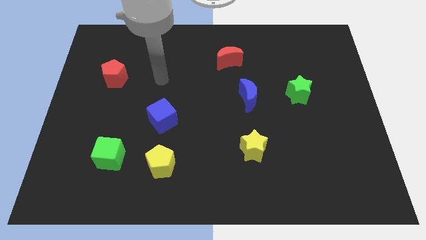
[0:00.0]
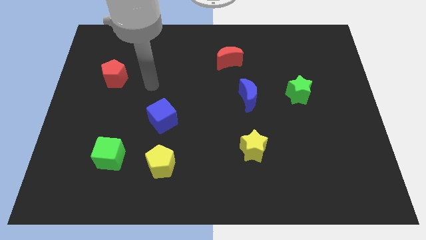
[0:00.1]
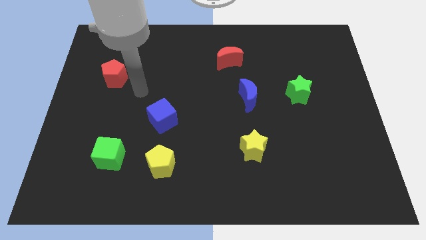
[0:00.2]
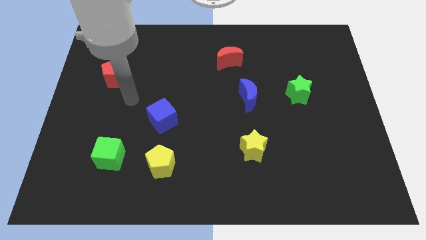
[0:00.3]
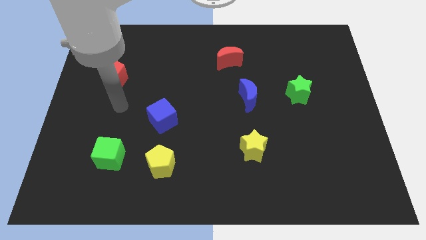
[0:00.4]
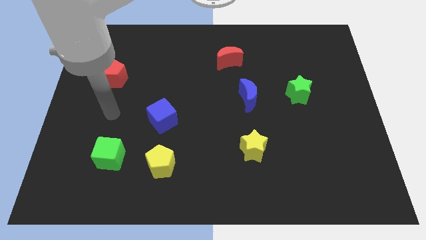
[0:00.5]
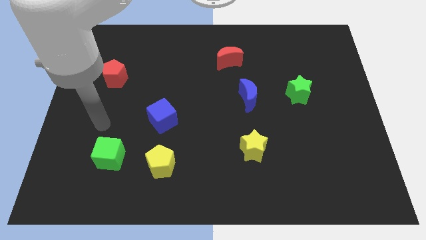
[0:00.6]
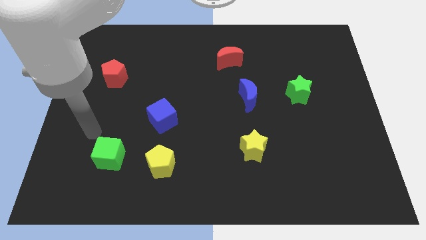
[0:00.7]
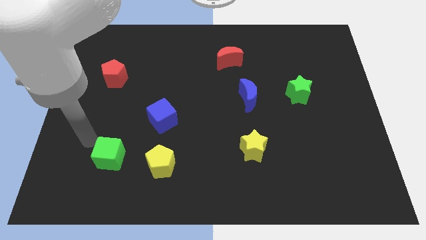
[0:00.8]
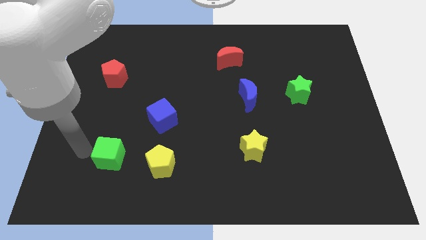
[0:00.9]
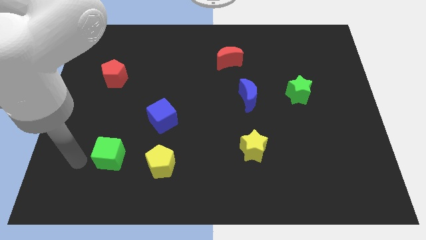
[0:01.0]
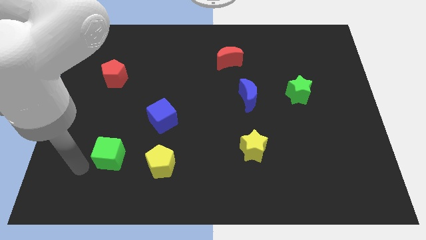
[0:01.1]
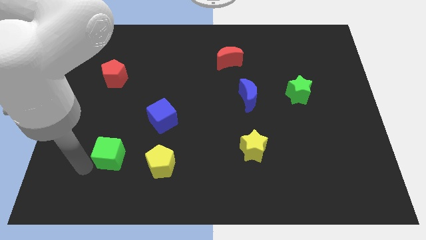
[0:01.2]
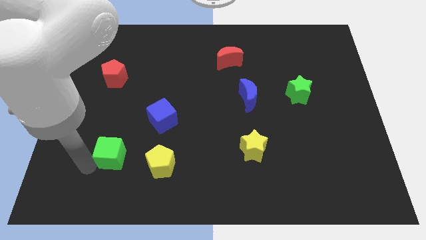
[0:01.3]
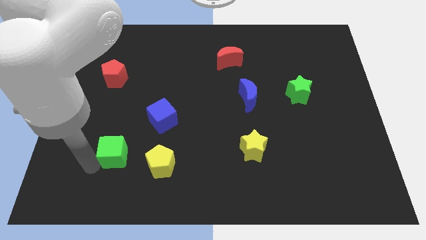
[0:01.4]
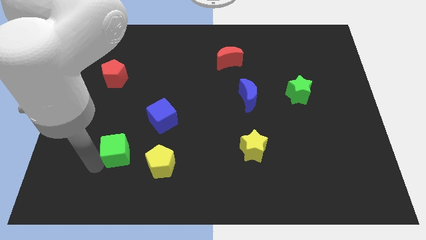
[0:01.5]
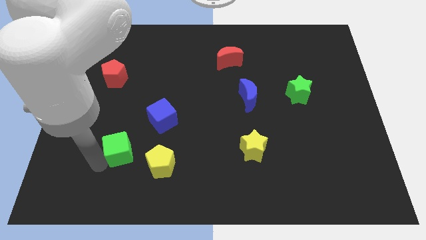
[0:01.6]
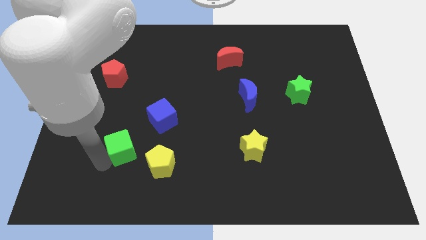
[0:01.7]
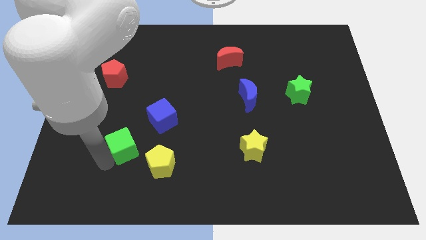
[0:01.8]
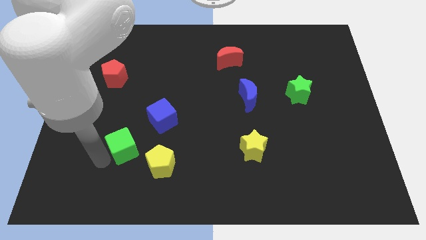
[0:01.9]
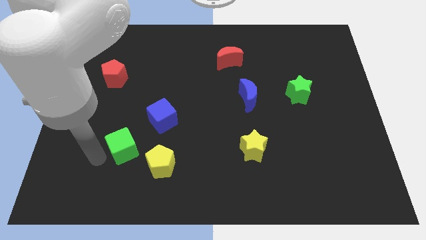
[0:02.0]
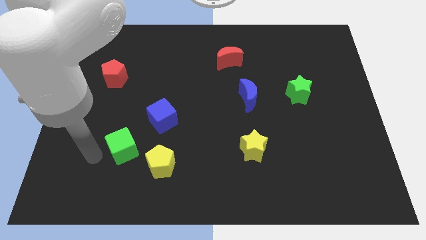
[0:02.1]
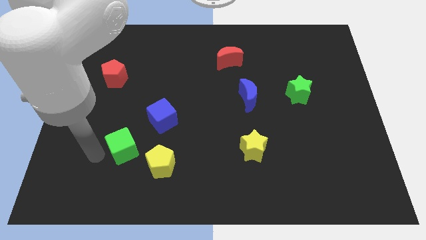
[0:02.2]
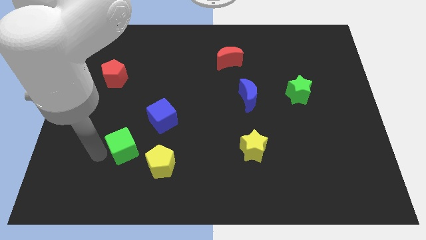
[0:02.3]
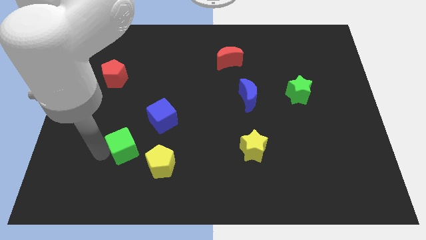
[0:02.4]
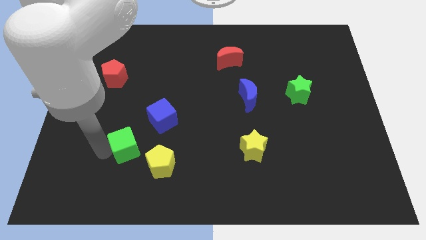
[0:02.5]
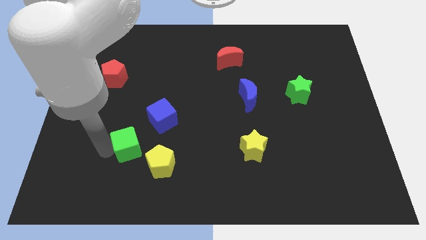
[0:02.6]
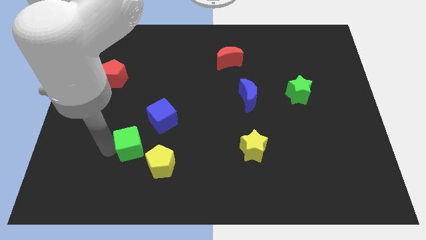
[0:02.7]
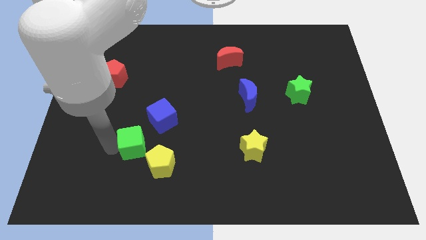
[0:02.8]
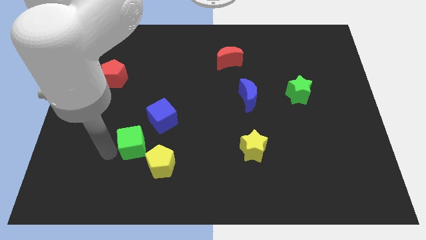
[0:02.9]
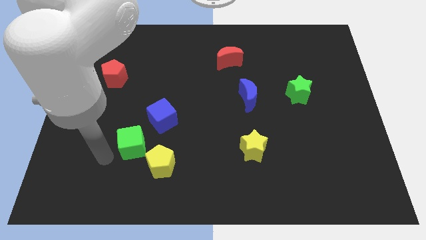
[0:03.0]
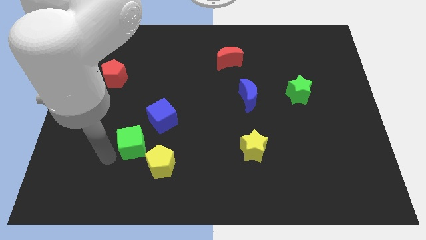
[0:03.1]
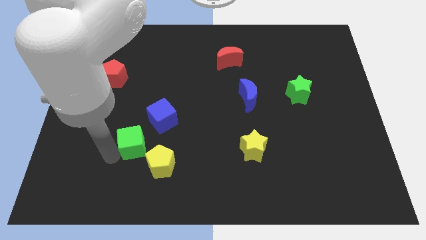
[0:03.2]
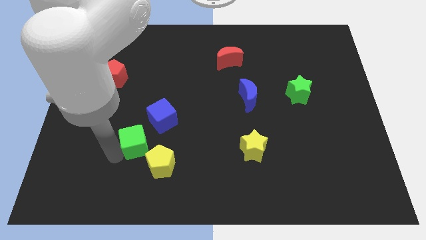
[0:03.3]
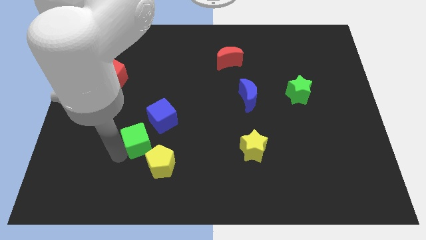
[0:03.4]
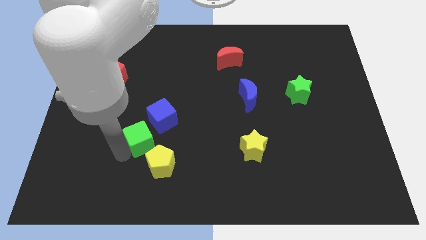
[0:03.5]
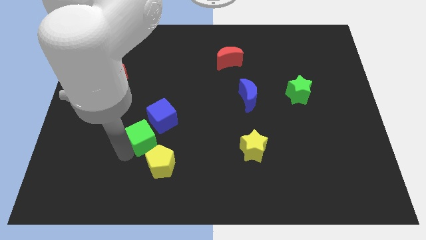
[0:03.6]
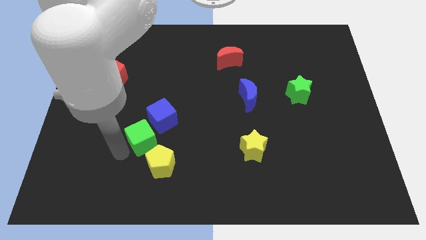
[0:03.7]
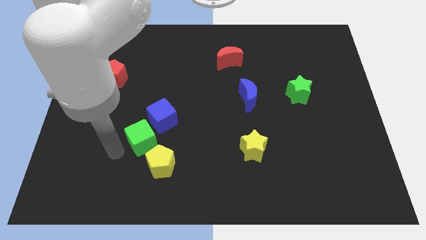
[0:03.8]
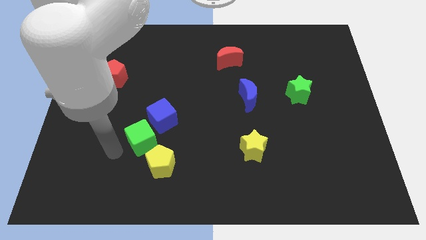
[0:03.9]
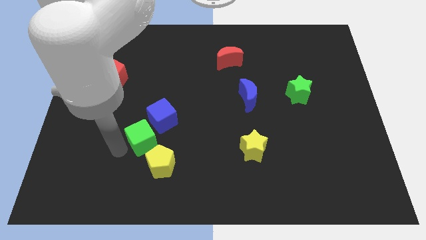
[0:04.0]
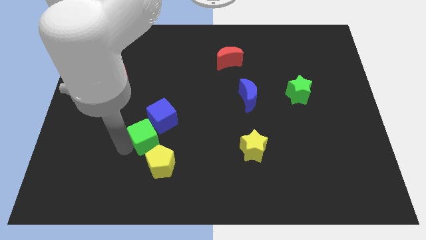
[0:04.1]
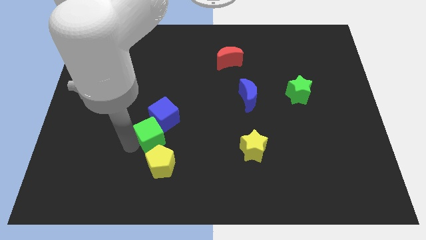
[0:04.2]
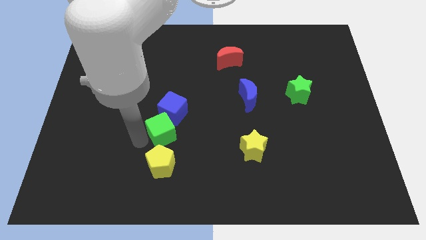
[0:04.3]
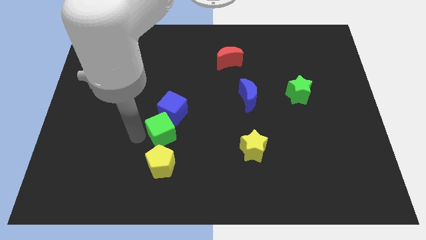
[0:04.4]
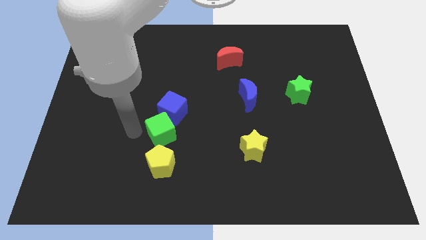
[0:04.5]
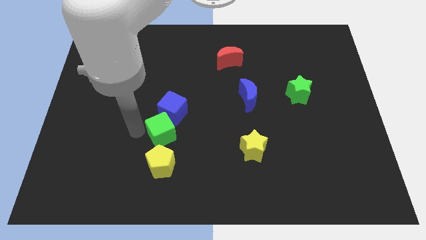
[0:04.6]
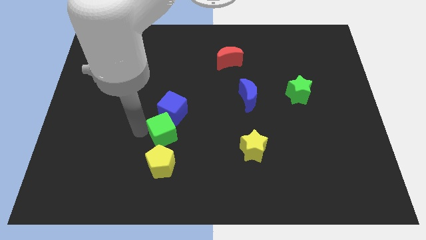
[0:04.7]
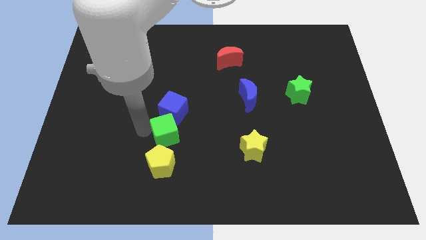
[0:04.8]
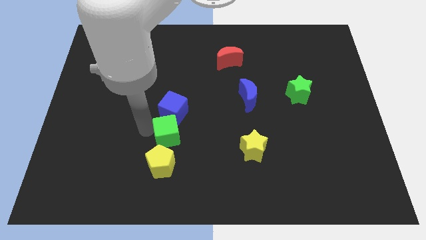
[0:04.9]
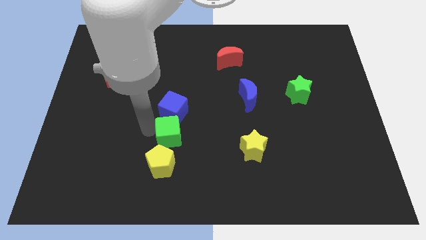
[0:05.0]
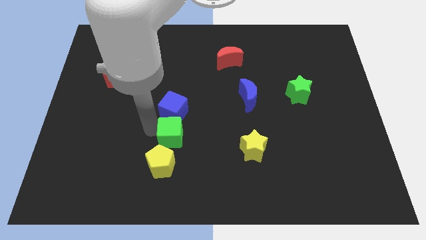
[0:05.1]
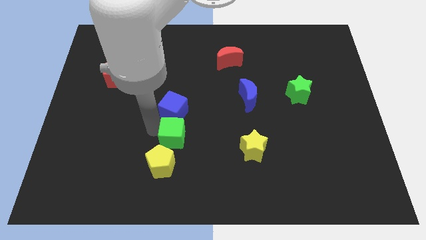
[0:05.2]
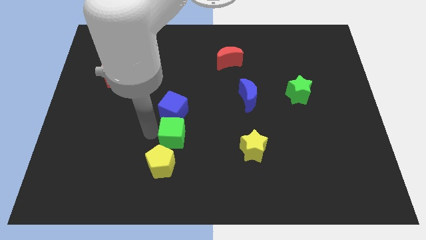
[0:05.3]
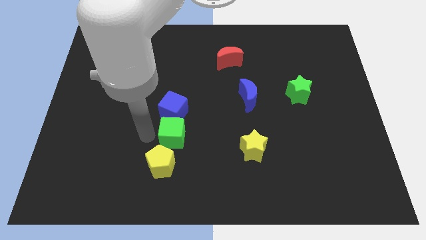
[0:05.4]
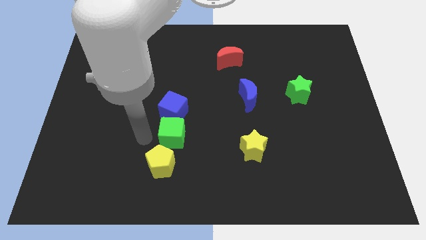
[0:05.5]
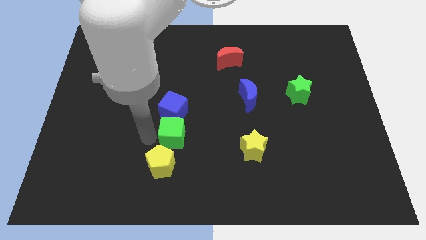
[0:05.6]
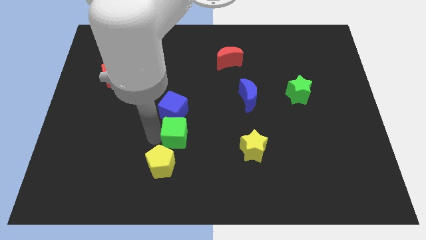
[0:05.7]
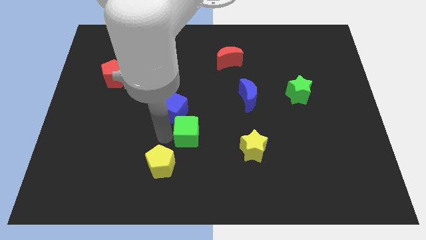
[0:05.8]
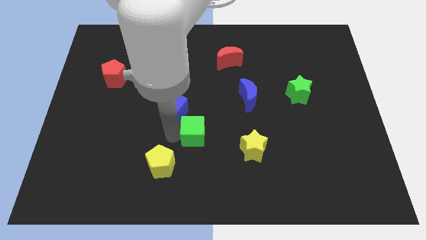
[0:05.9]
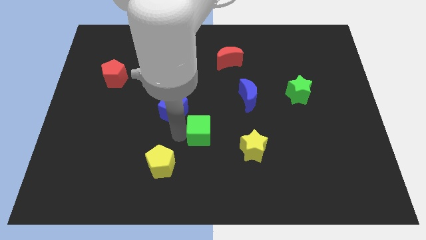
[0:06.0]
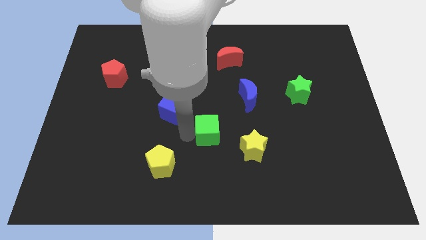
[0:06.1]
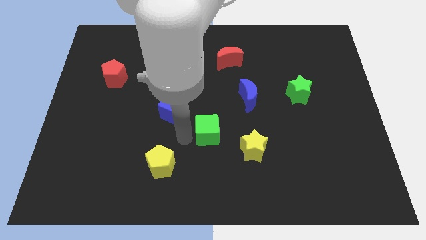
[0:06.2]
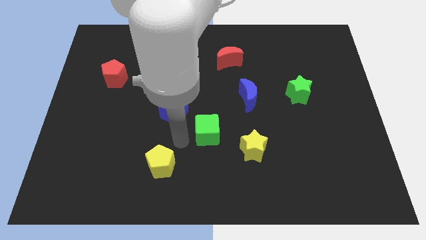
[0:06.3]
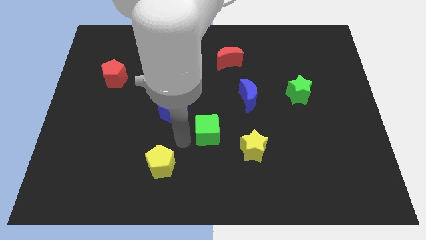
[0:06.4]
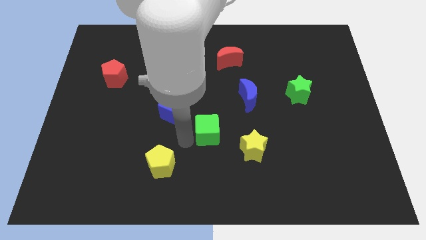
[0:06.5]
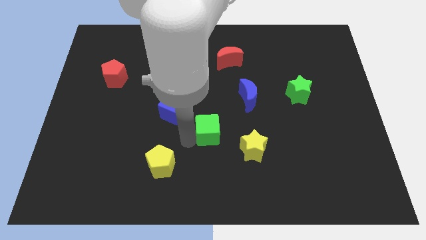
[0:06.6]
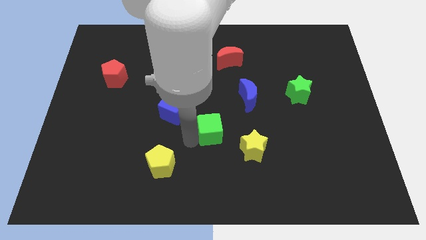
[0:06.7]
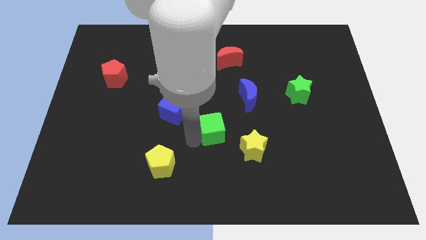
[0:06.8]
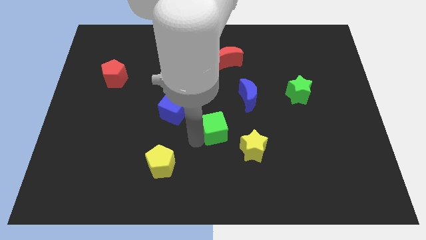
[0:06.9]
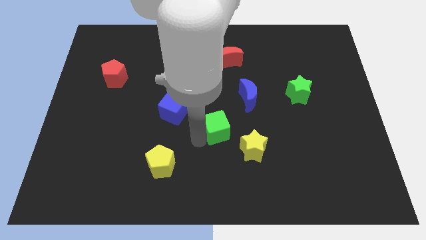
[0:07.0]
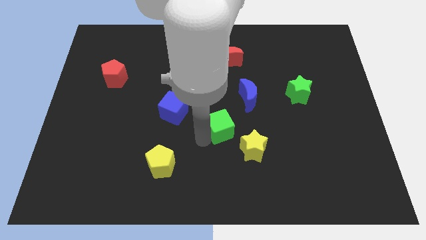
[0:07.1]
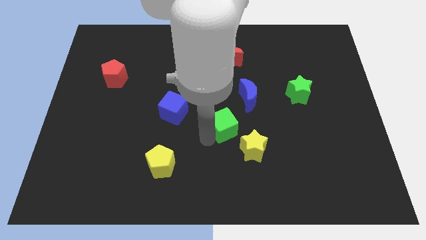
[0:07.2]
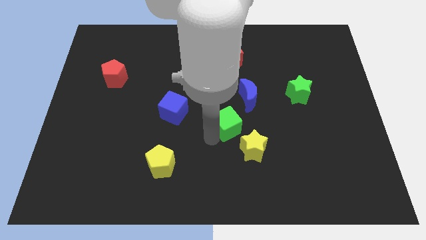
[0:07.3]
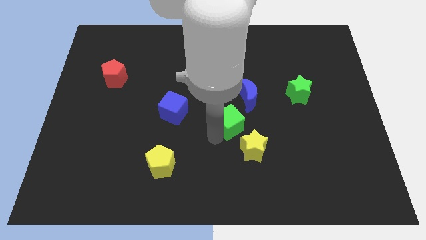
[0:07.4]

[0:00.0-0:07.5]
slide the green cube above the yellow star
